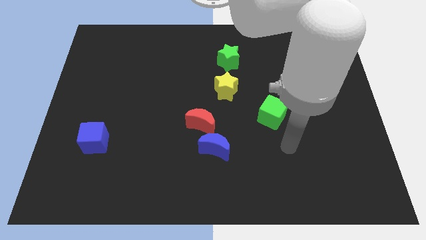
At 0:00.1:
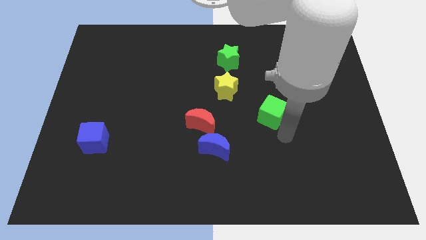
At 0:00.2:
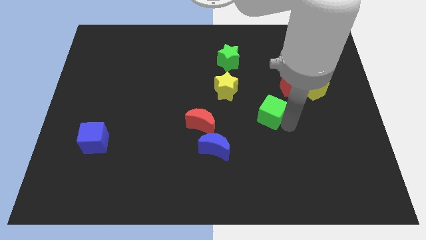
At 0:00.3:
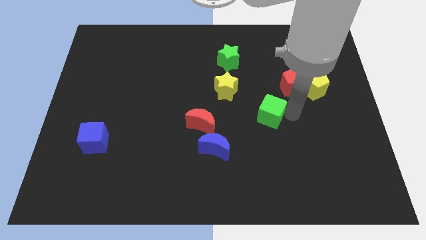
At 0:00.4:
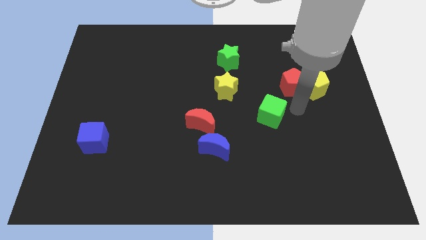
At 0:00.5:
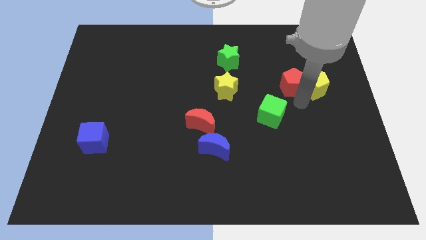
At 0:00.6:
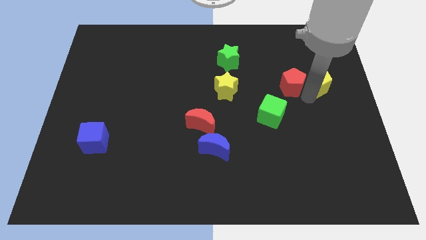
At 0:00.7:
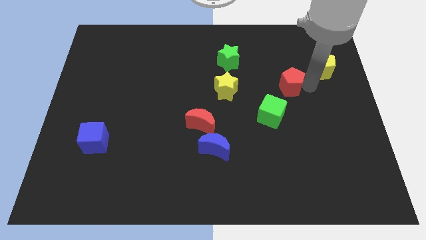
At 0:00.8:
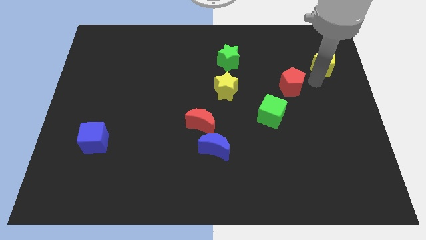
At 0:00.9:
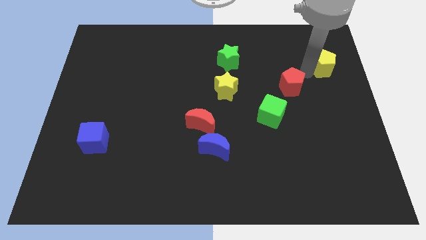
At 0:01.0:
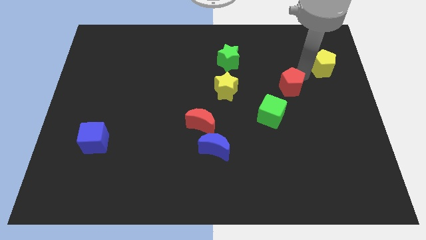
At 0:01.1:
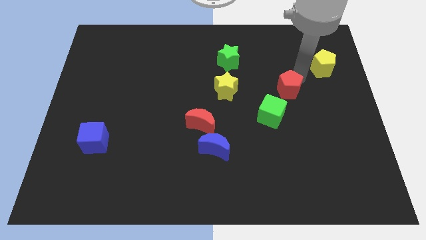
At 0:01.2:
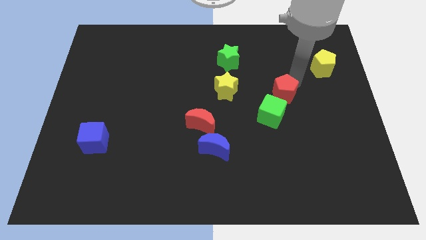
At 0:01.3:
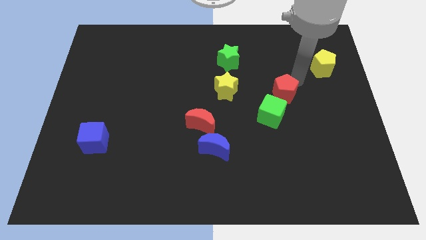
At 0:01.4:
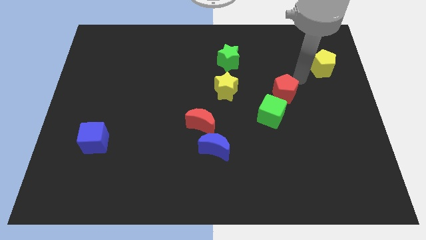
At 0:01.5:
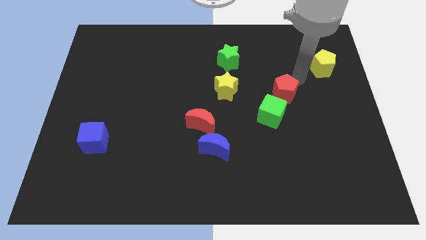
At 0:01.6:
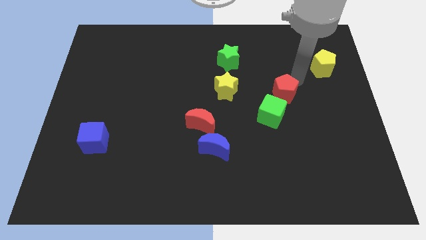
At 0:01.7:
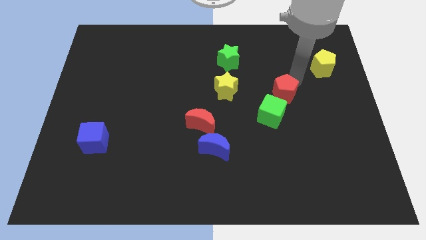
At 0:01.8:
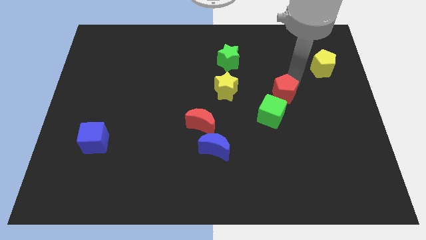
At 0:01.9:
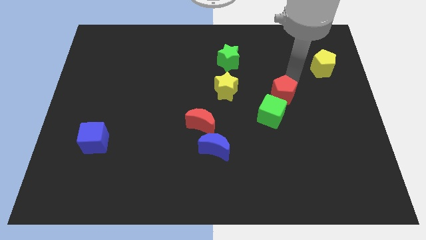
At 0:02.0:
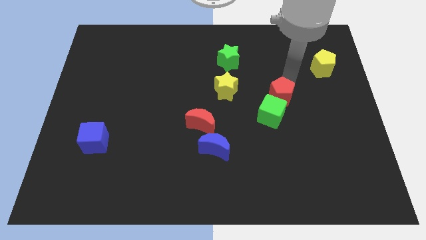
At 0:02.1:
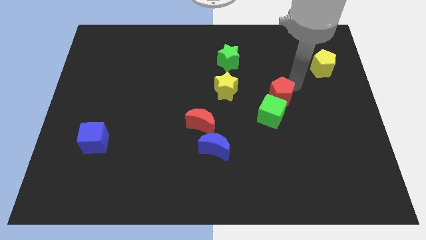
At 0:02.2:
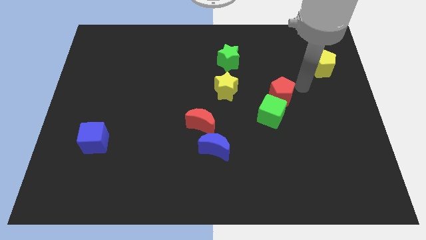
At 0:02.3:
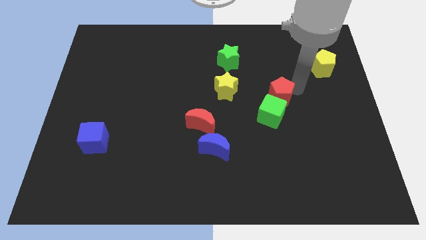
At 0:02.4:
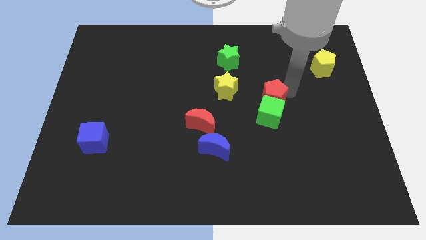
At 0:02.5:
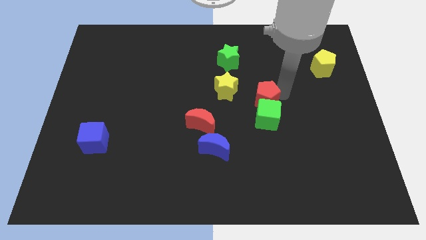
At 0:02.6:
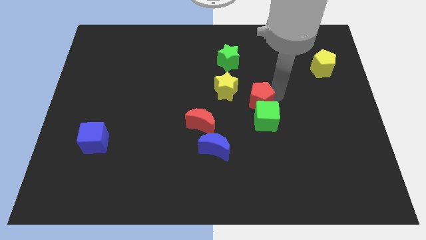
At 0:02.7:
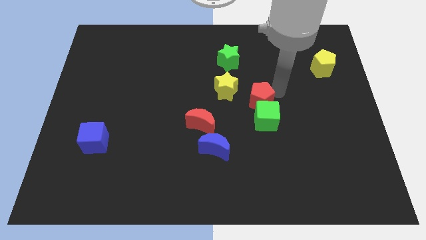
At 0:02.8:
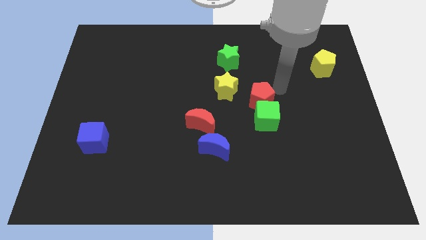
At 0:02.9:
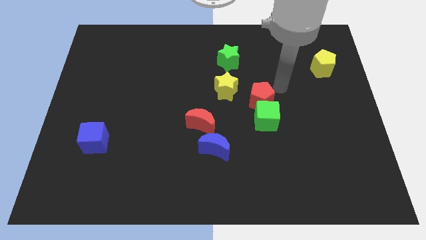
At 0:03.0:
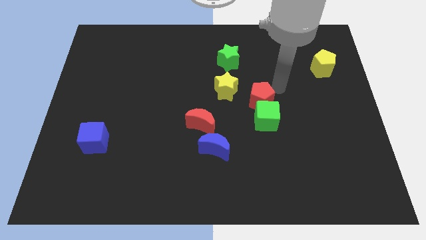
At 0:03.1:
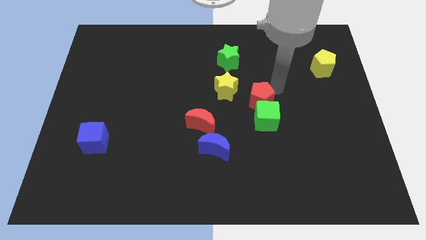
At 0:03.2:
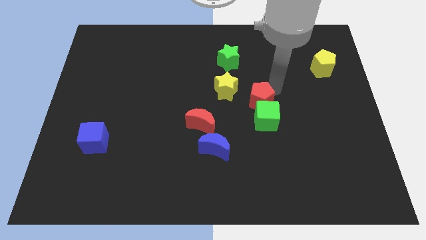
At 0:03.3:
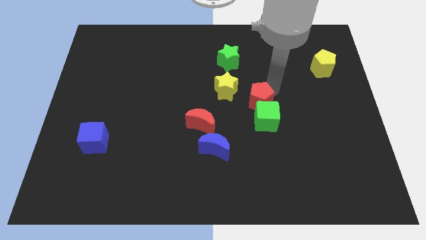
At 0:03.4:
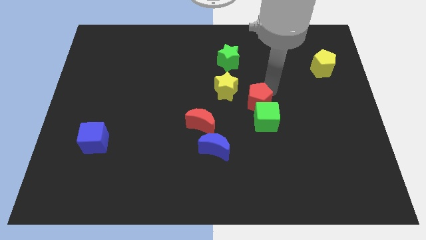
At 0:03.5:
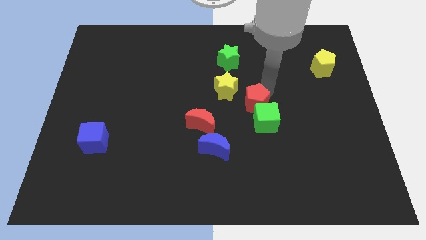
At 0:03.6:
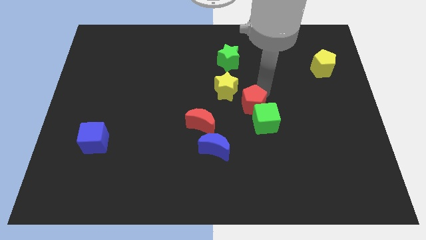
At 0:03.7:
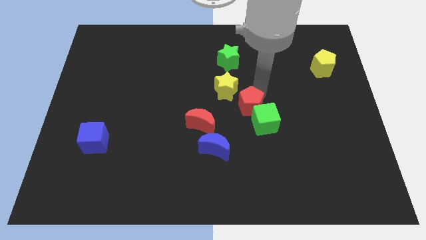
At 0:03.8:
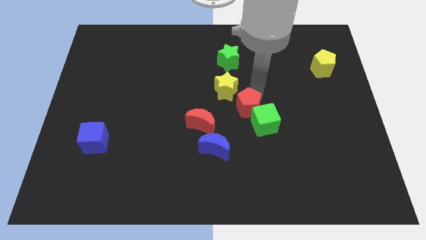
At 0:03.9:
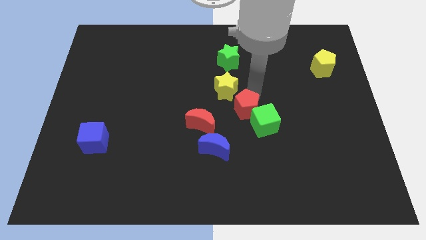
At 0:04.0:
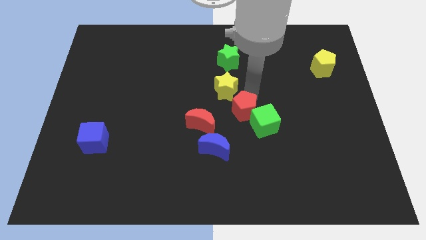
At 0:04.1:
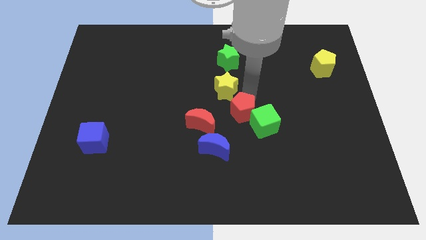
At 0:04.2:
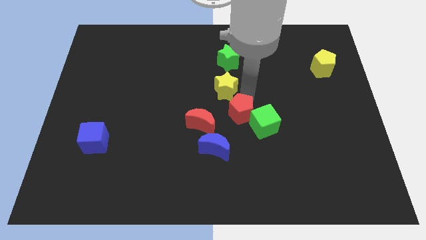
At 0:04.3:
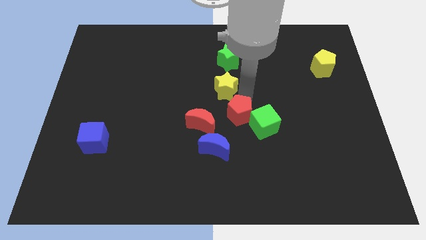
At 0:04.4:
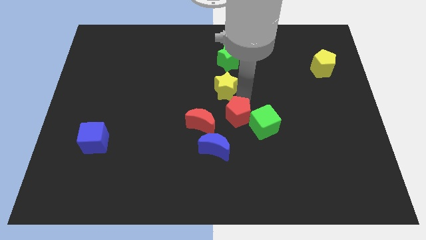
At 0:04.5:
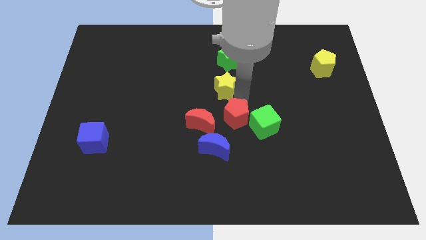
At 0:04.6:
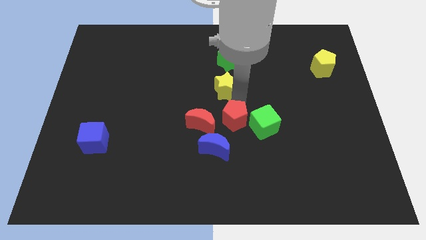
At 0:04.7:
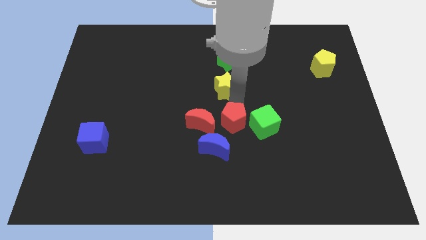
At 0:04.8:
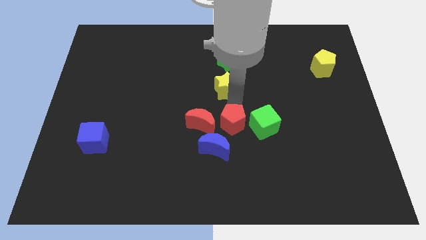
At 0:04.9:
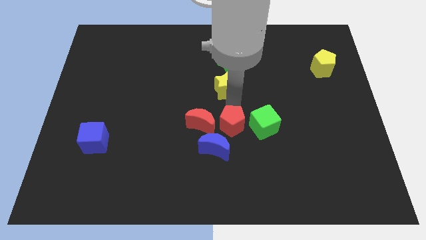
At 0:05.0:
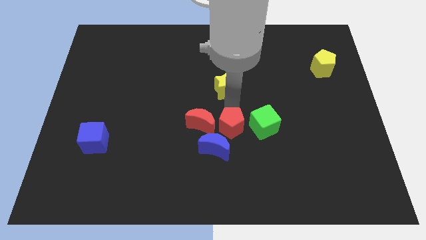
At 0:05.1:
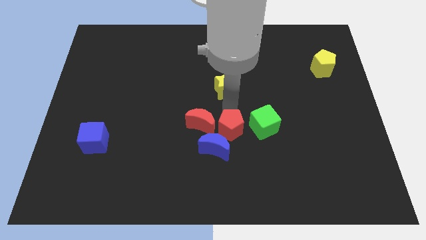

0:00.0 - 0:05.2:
move the red pentagon close to the blue moon

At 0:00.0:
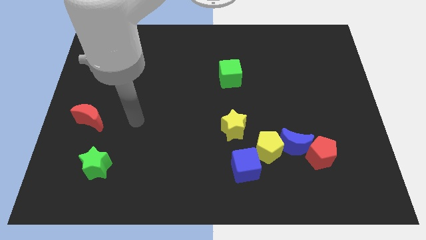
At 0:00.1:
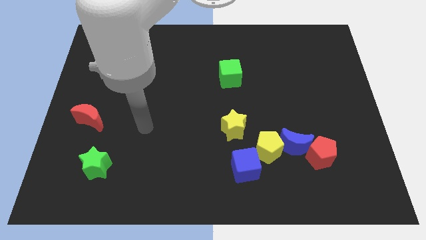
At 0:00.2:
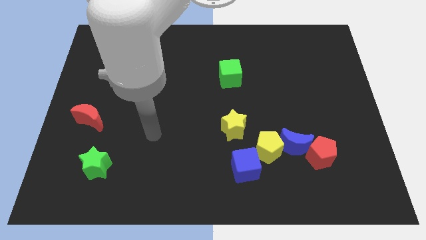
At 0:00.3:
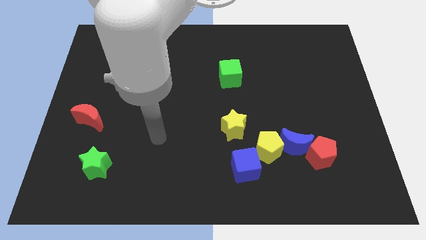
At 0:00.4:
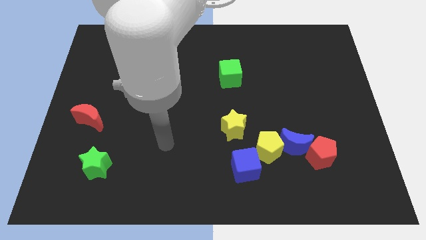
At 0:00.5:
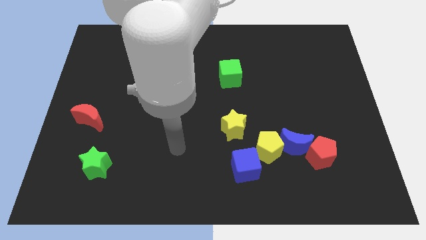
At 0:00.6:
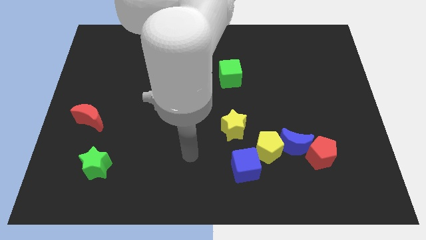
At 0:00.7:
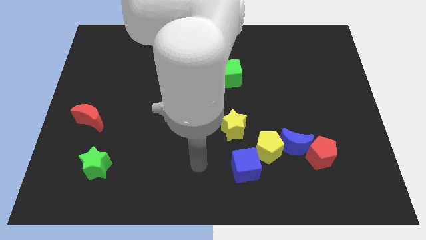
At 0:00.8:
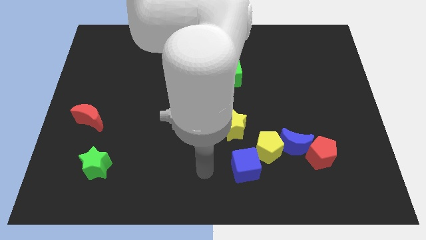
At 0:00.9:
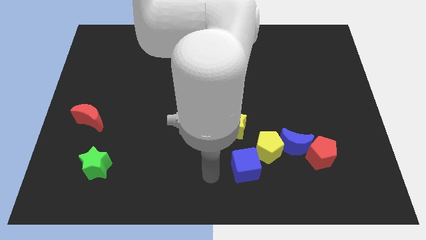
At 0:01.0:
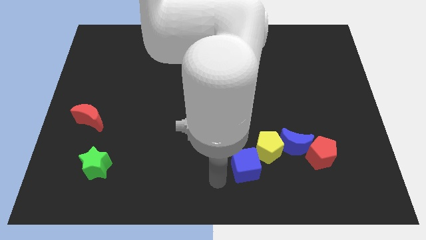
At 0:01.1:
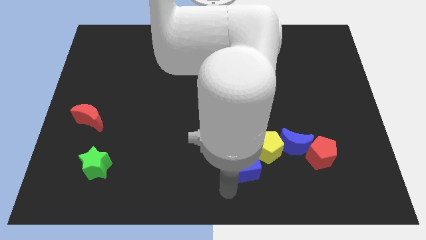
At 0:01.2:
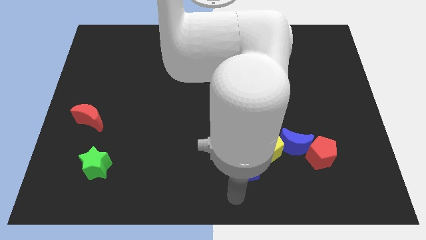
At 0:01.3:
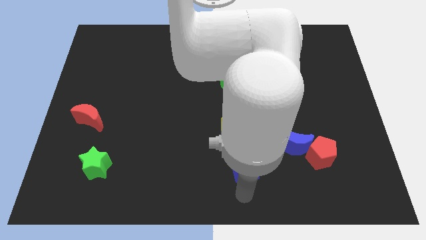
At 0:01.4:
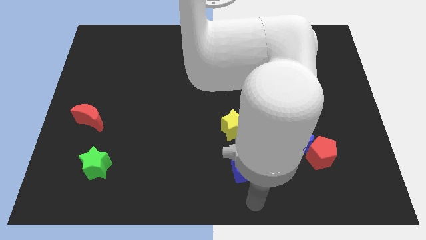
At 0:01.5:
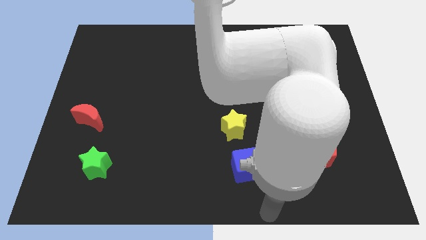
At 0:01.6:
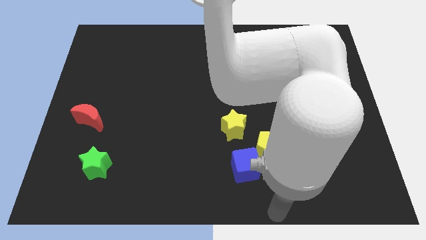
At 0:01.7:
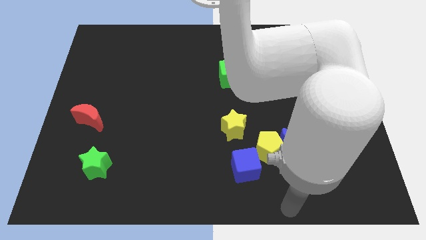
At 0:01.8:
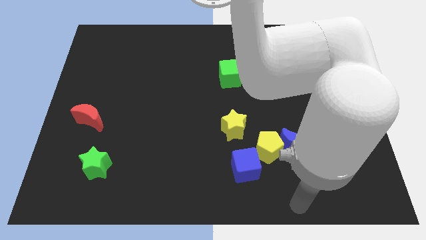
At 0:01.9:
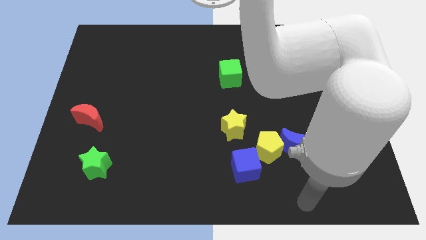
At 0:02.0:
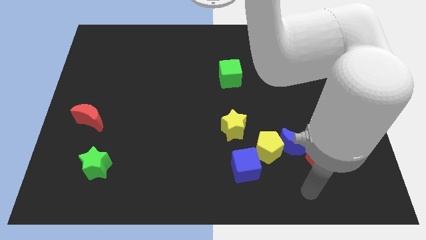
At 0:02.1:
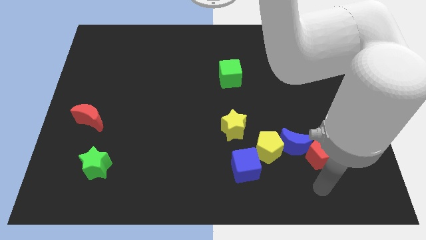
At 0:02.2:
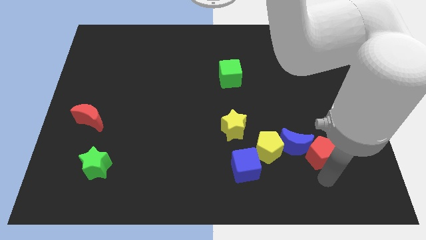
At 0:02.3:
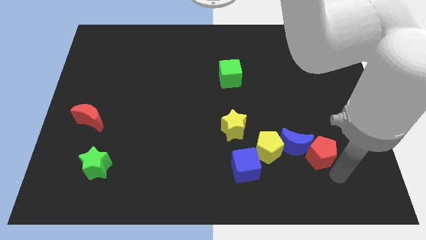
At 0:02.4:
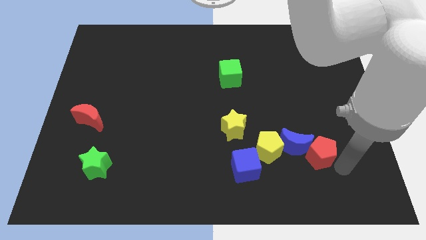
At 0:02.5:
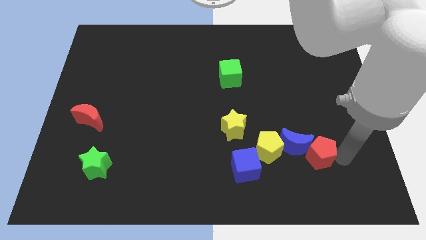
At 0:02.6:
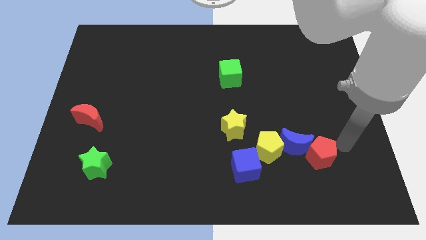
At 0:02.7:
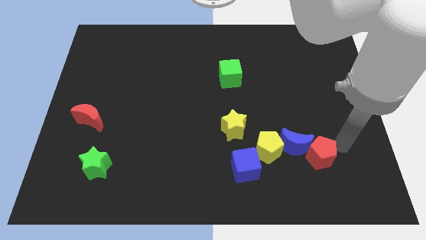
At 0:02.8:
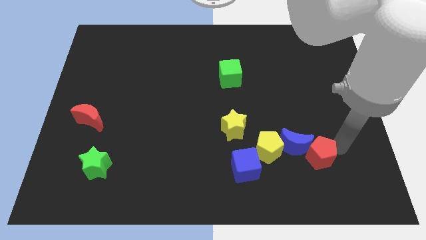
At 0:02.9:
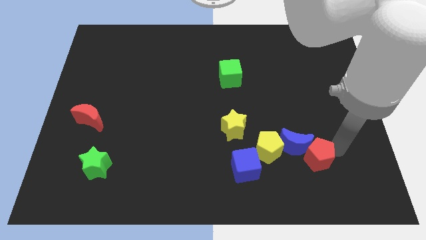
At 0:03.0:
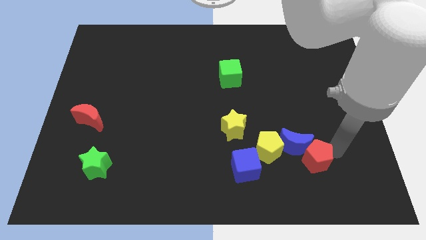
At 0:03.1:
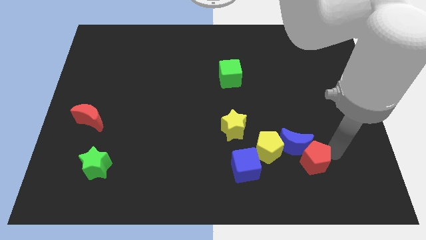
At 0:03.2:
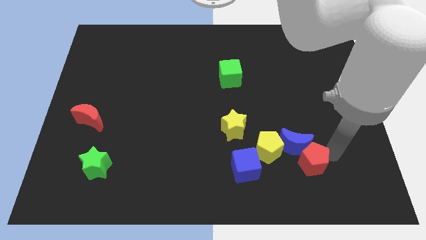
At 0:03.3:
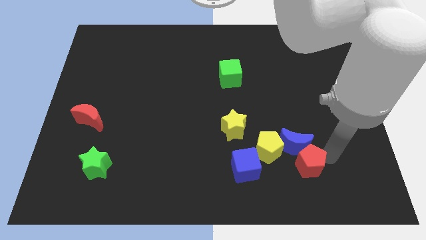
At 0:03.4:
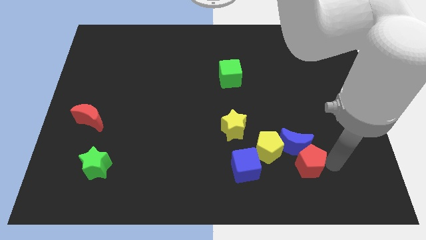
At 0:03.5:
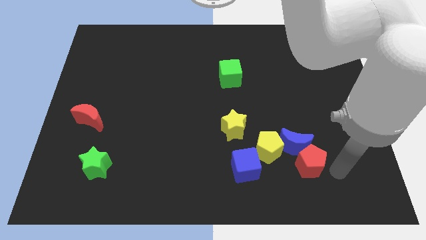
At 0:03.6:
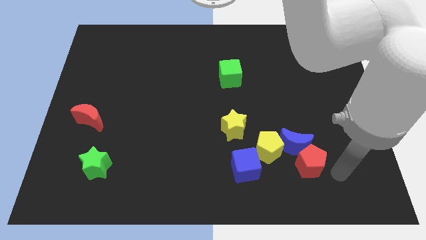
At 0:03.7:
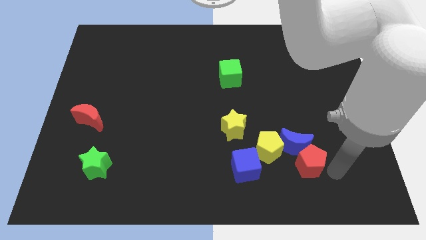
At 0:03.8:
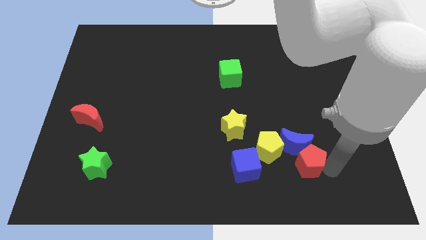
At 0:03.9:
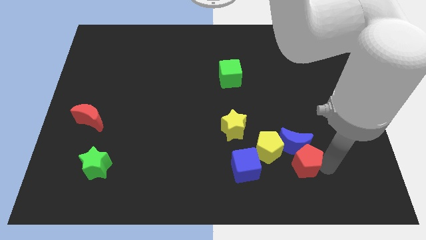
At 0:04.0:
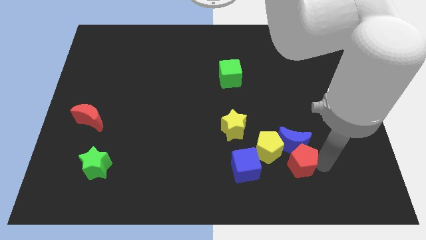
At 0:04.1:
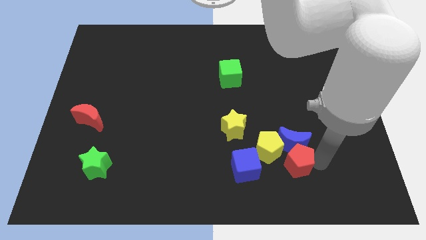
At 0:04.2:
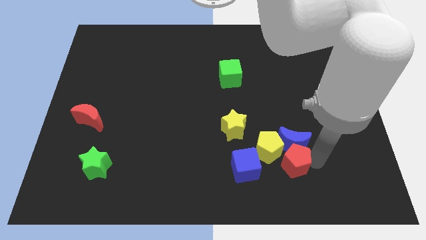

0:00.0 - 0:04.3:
slide the red pentagon close to the yellow pentagon
